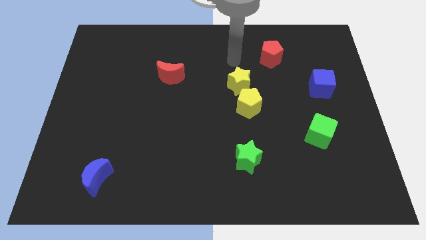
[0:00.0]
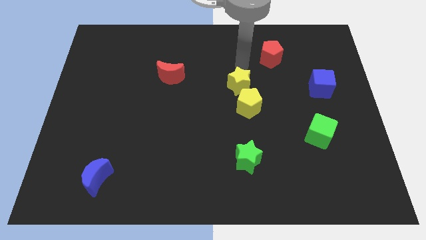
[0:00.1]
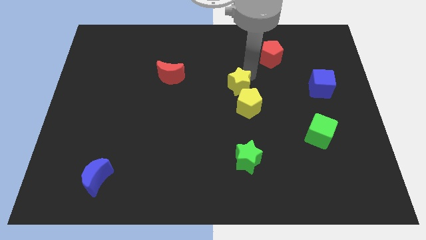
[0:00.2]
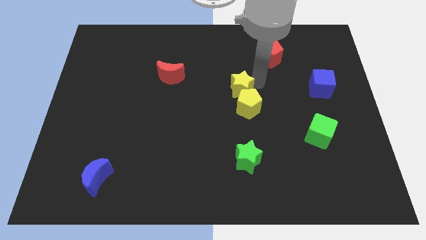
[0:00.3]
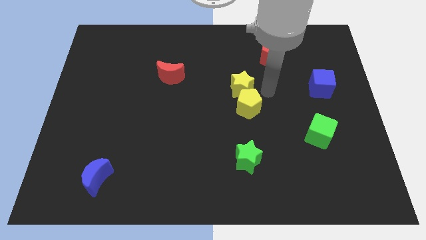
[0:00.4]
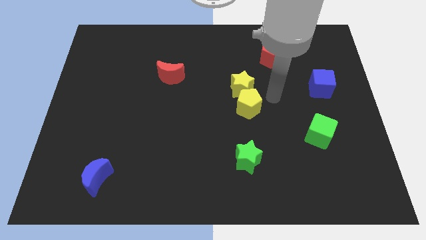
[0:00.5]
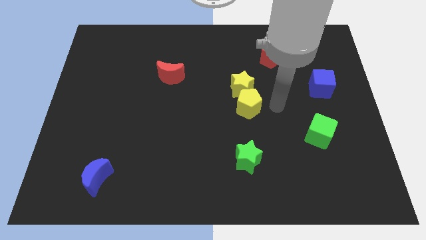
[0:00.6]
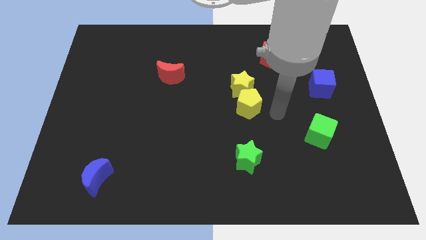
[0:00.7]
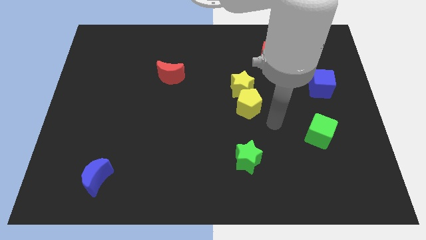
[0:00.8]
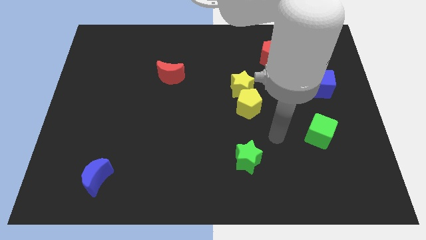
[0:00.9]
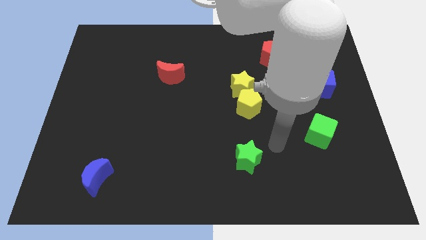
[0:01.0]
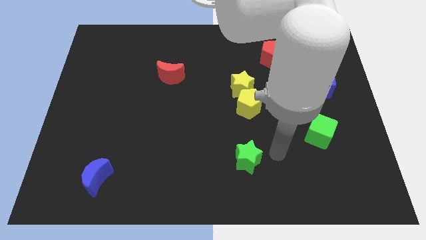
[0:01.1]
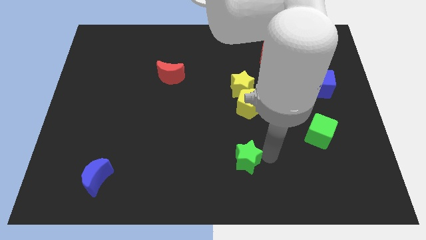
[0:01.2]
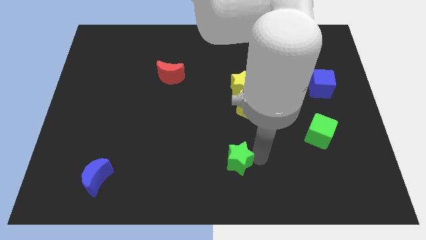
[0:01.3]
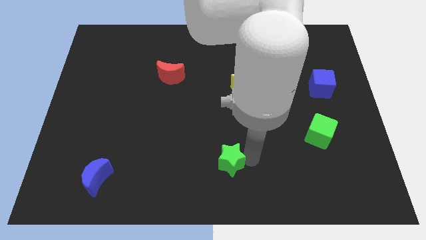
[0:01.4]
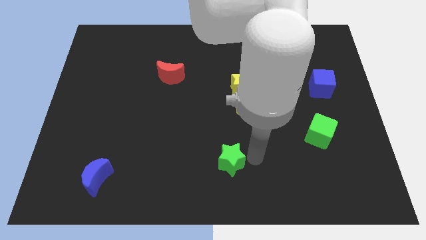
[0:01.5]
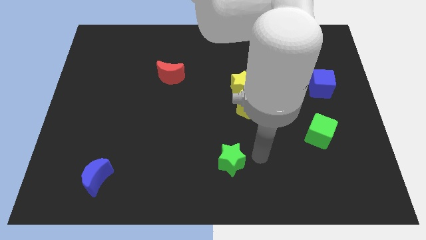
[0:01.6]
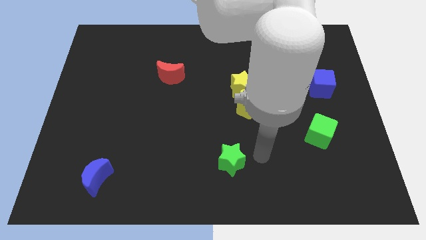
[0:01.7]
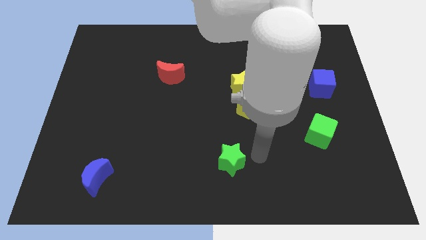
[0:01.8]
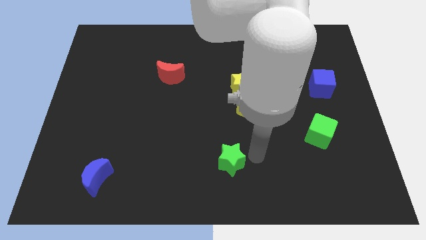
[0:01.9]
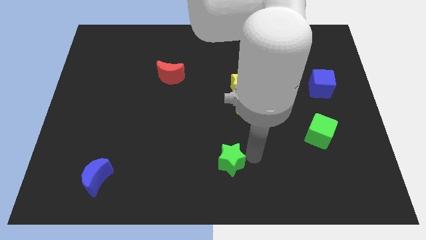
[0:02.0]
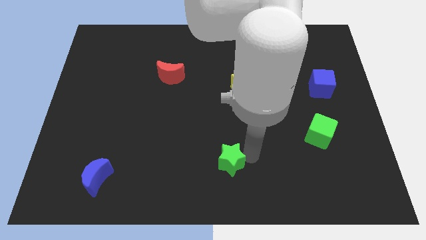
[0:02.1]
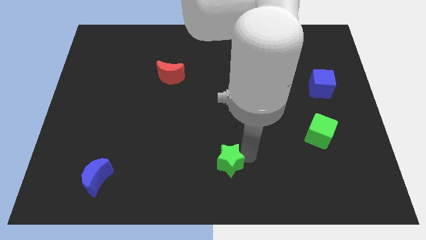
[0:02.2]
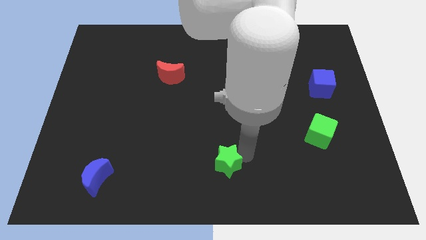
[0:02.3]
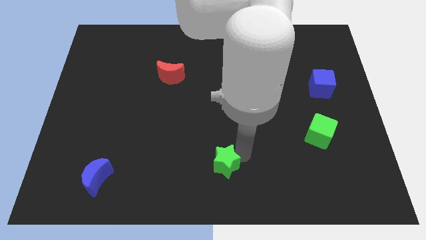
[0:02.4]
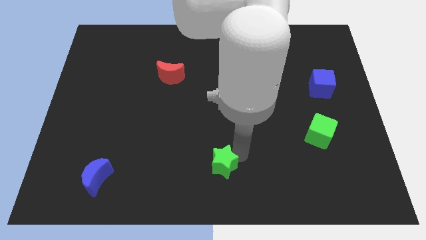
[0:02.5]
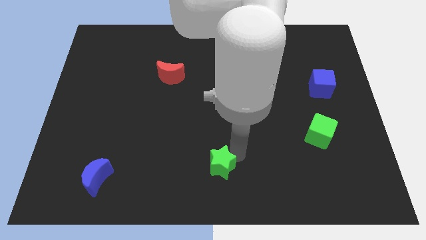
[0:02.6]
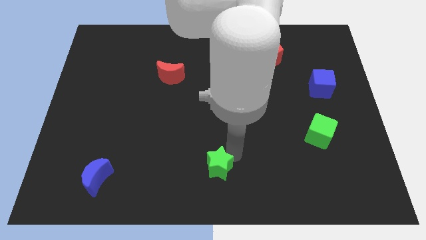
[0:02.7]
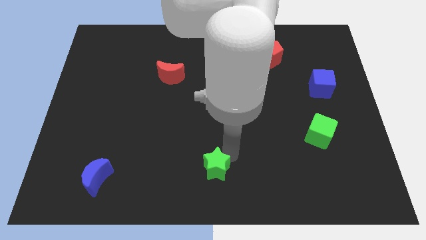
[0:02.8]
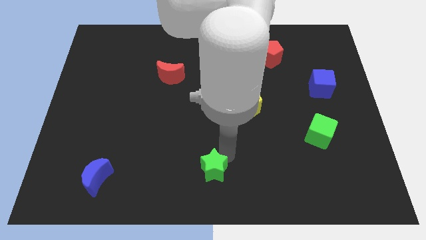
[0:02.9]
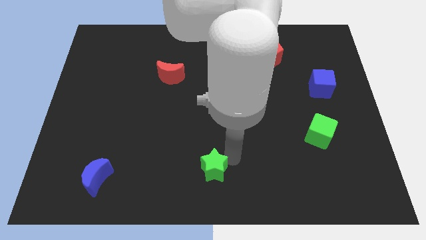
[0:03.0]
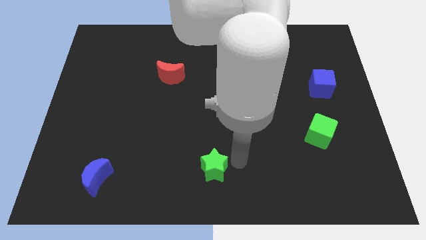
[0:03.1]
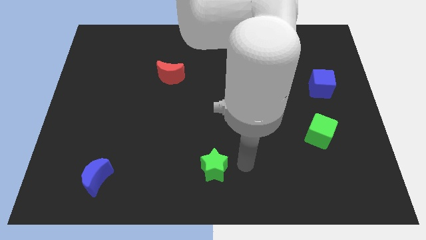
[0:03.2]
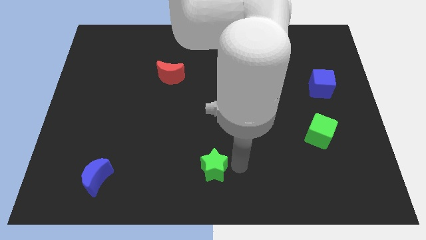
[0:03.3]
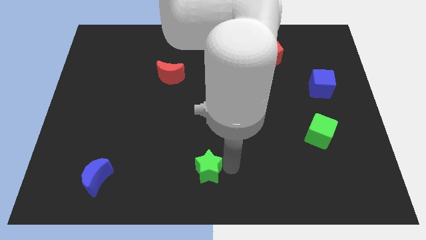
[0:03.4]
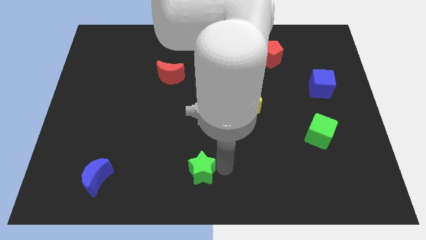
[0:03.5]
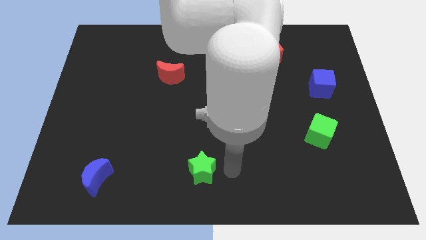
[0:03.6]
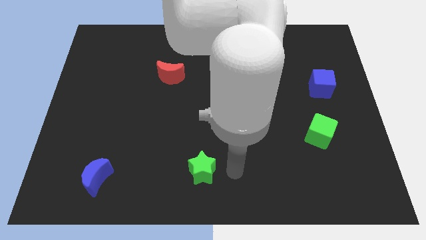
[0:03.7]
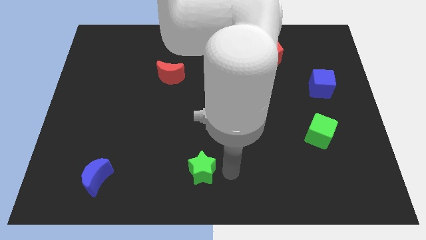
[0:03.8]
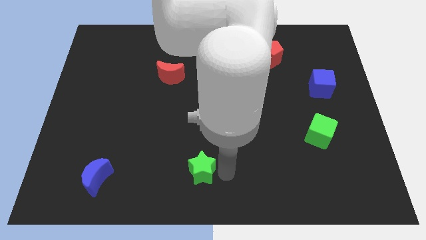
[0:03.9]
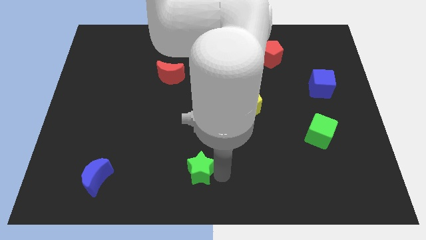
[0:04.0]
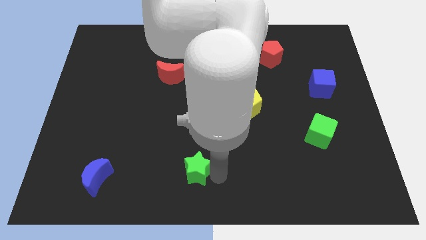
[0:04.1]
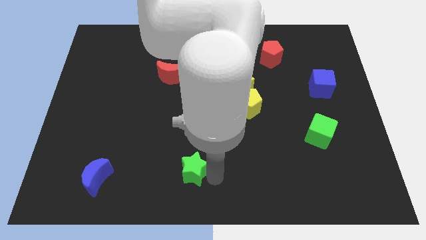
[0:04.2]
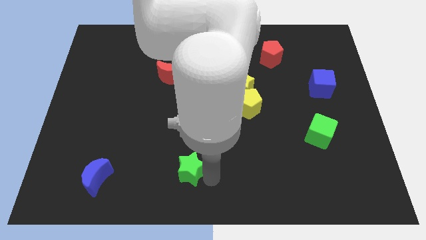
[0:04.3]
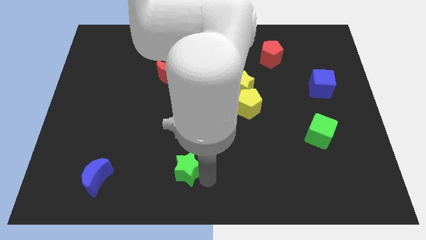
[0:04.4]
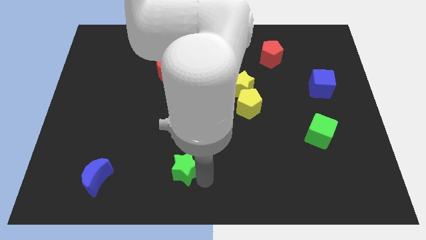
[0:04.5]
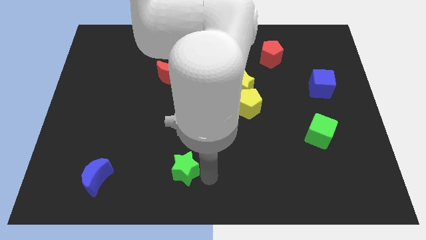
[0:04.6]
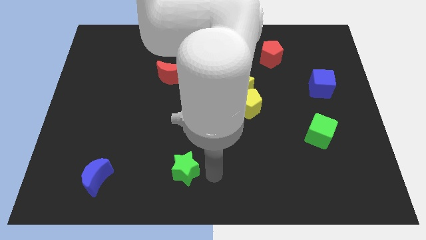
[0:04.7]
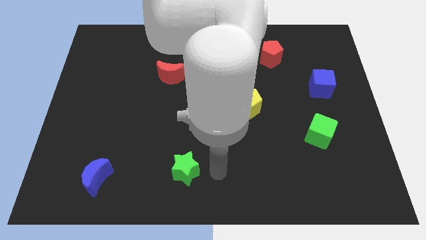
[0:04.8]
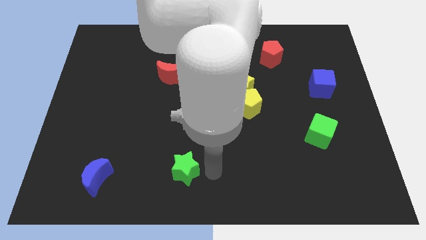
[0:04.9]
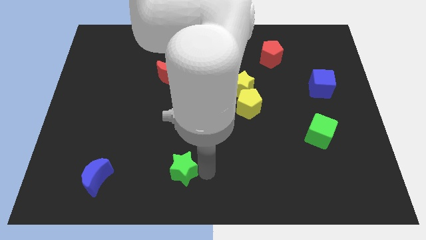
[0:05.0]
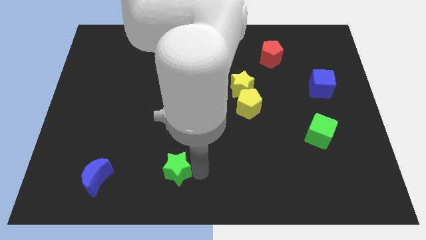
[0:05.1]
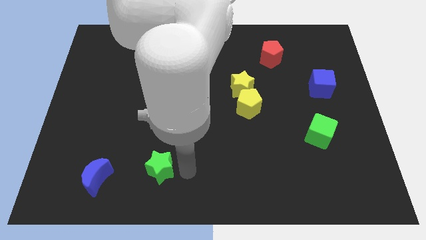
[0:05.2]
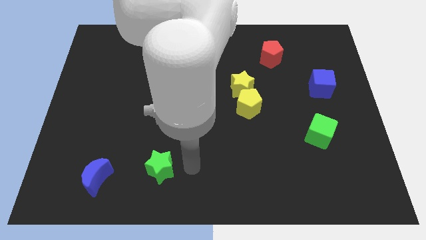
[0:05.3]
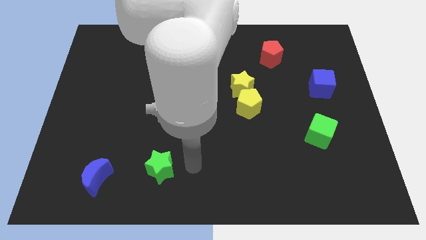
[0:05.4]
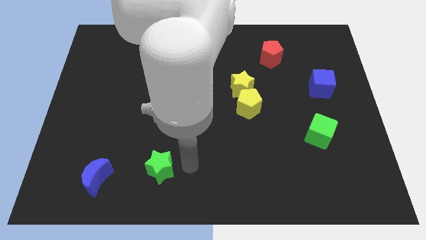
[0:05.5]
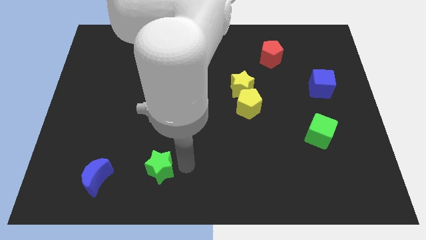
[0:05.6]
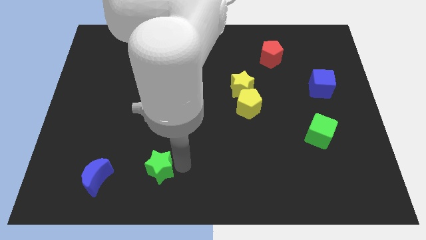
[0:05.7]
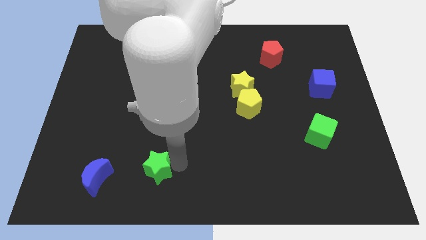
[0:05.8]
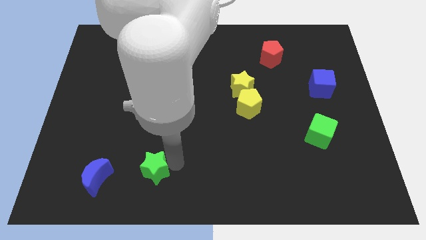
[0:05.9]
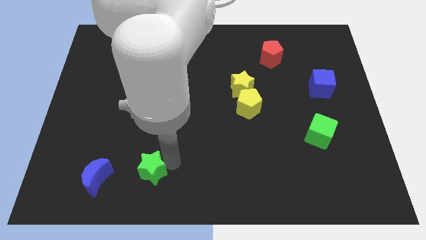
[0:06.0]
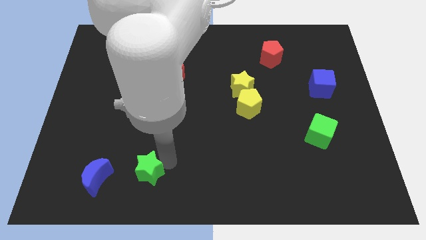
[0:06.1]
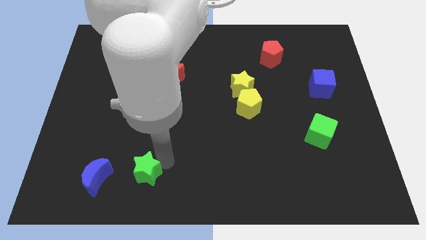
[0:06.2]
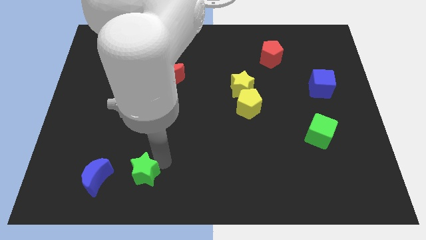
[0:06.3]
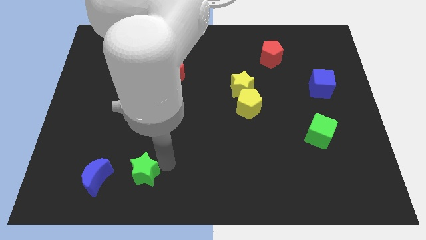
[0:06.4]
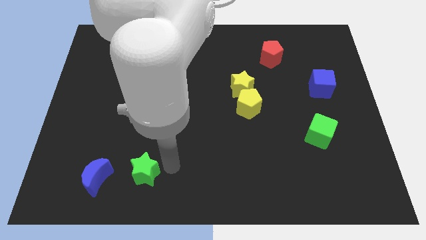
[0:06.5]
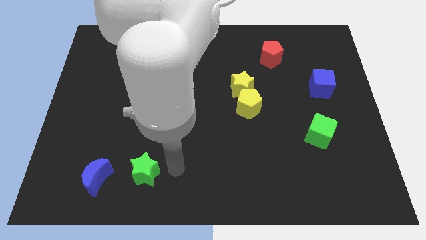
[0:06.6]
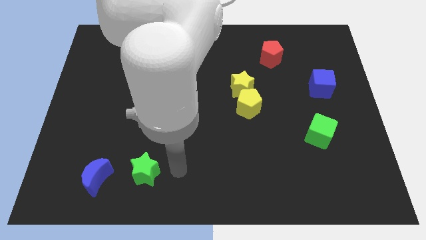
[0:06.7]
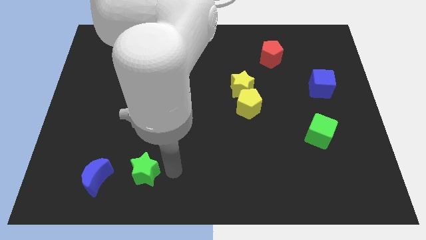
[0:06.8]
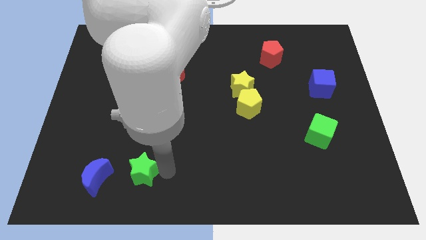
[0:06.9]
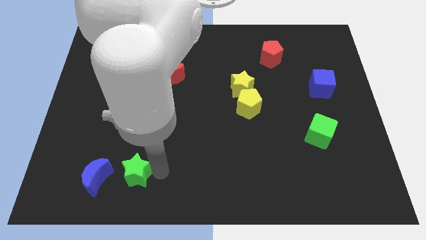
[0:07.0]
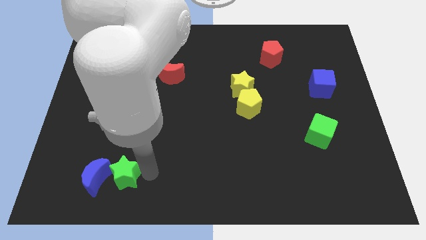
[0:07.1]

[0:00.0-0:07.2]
put the green star next to the blue moon
